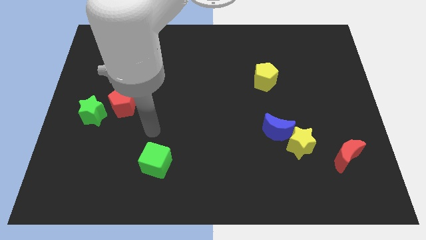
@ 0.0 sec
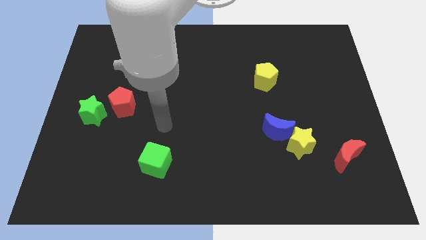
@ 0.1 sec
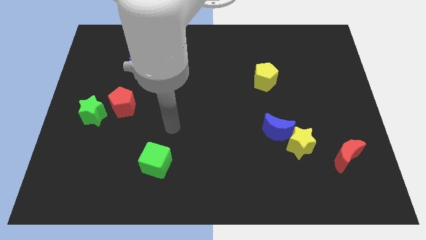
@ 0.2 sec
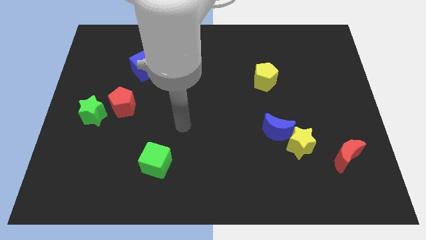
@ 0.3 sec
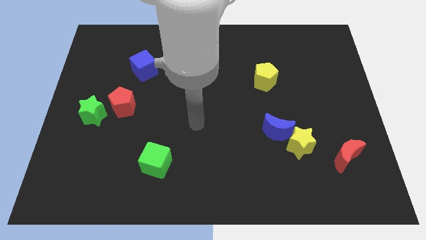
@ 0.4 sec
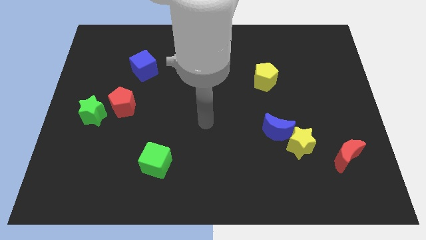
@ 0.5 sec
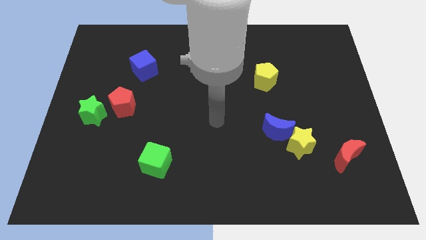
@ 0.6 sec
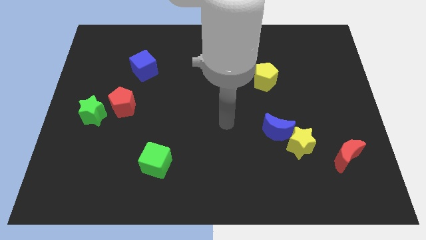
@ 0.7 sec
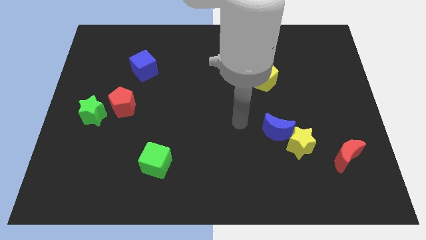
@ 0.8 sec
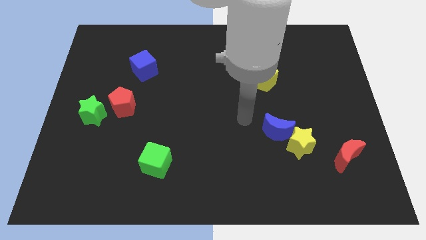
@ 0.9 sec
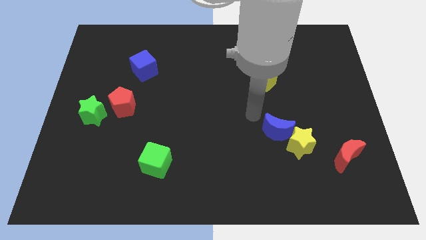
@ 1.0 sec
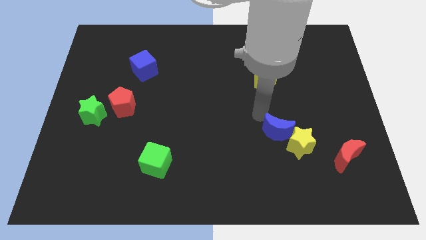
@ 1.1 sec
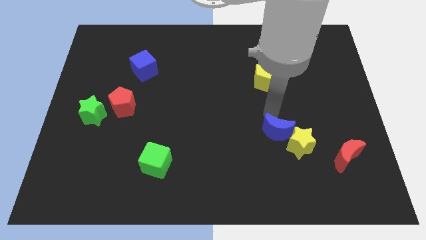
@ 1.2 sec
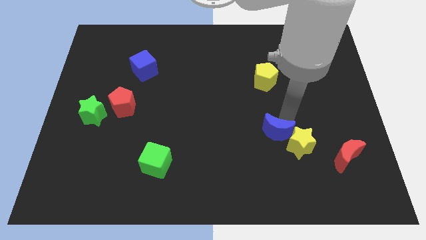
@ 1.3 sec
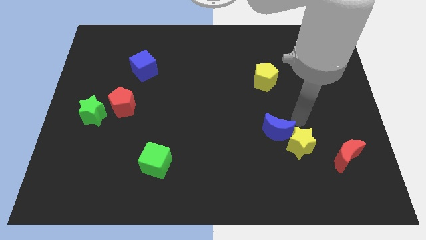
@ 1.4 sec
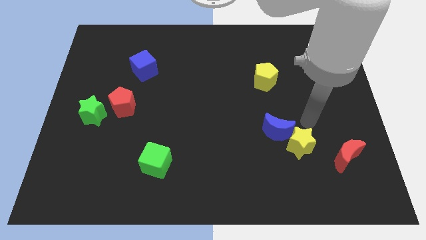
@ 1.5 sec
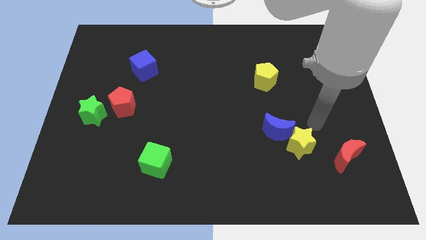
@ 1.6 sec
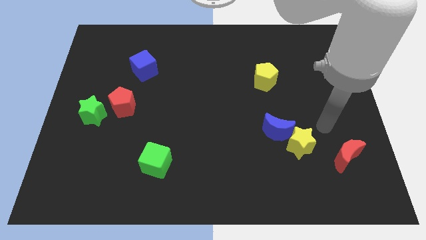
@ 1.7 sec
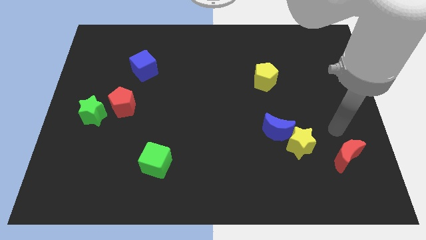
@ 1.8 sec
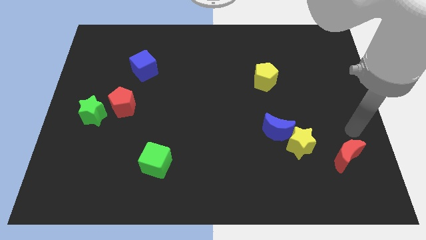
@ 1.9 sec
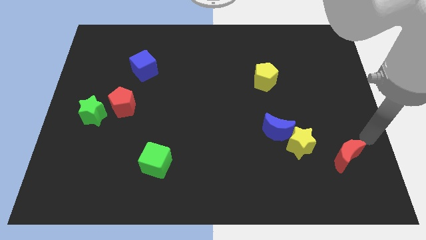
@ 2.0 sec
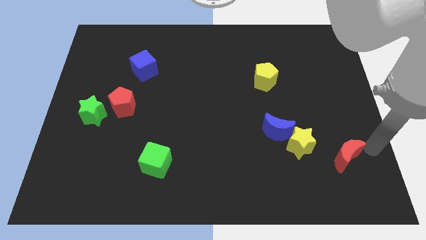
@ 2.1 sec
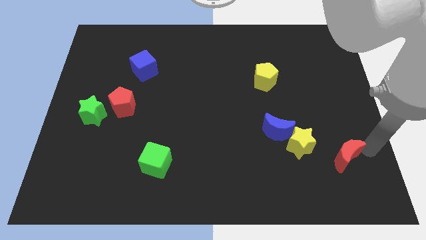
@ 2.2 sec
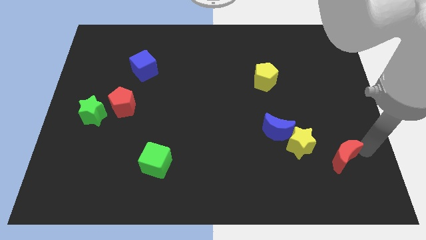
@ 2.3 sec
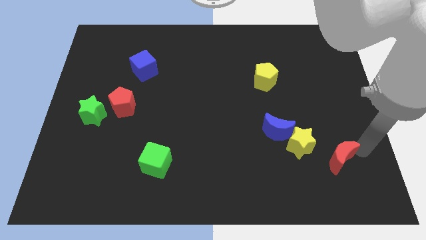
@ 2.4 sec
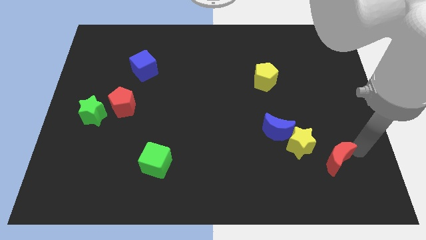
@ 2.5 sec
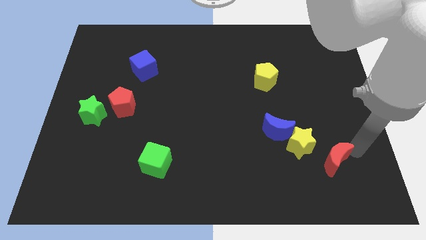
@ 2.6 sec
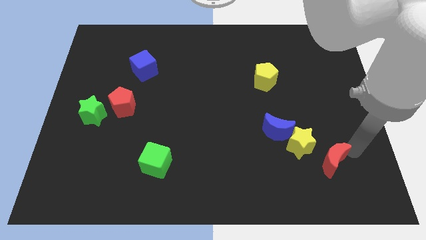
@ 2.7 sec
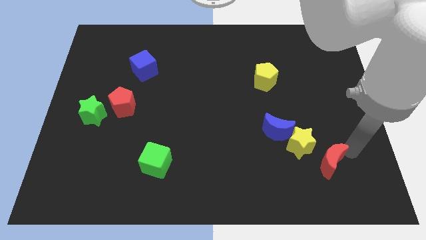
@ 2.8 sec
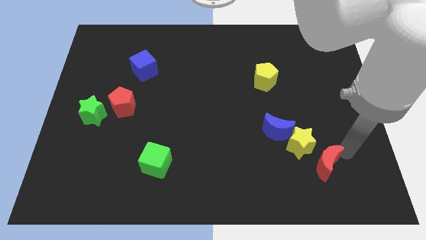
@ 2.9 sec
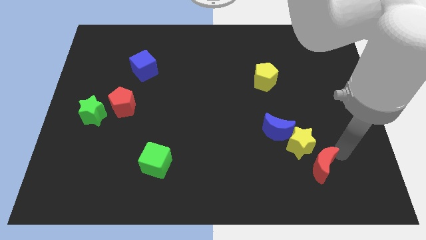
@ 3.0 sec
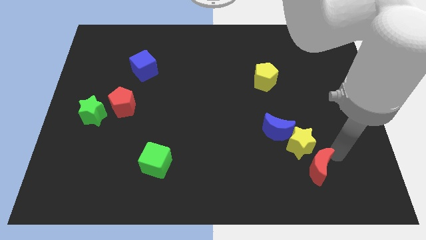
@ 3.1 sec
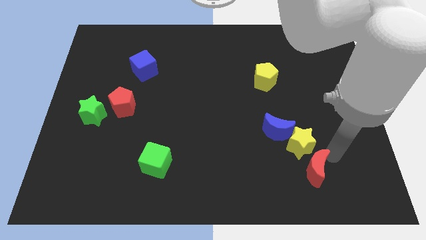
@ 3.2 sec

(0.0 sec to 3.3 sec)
slide the red moon left slightly

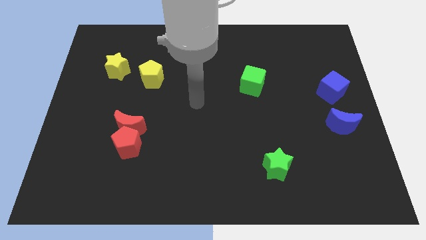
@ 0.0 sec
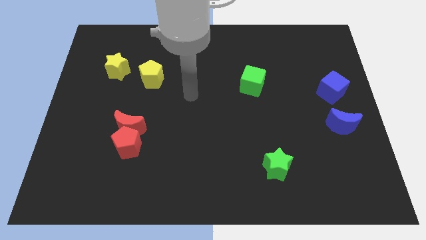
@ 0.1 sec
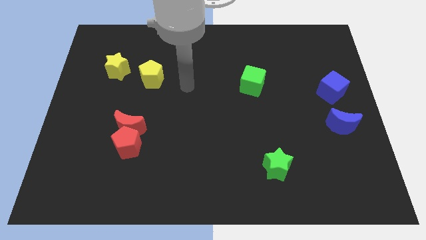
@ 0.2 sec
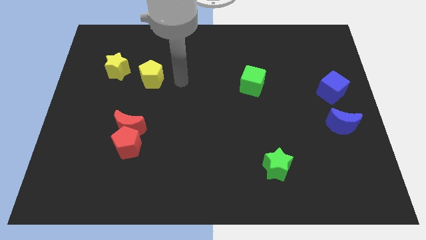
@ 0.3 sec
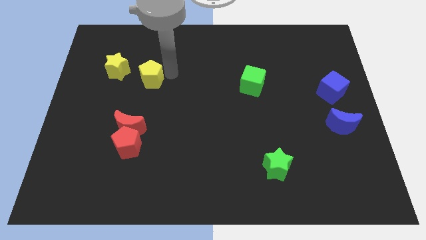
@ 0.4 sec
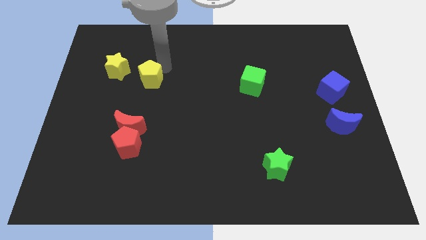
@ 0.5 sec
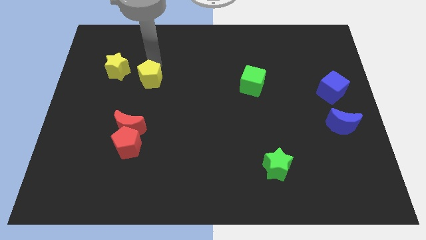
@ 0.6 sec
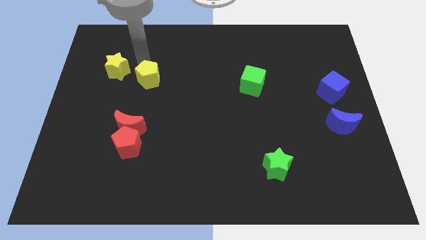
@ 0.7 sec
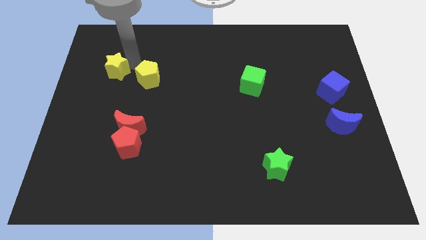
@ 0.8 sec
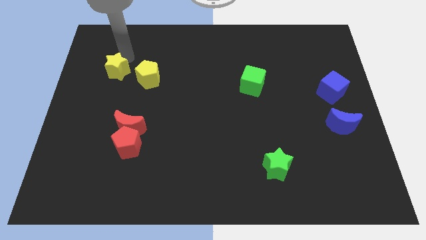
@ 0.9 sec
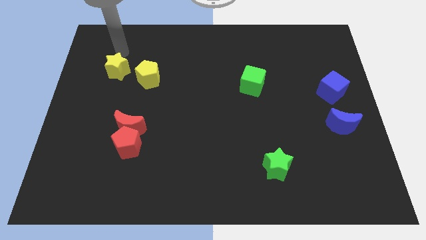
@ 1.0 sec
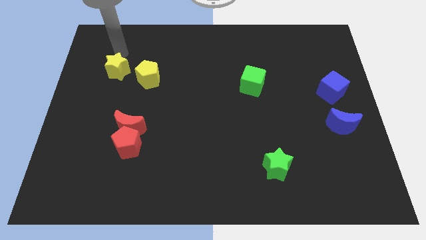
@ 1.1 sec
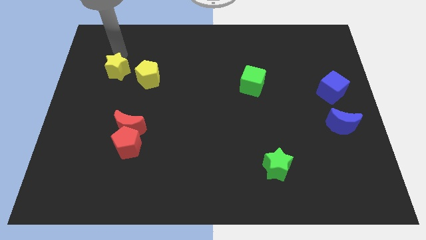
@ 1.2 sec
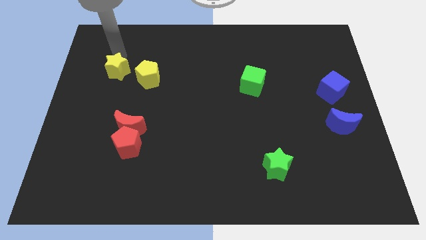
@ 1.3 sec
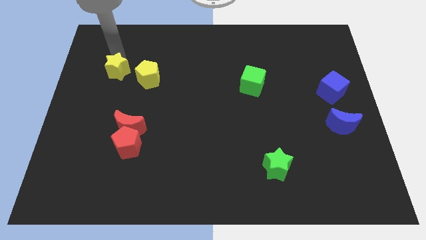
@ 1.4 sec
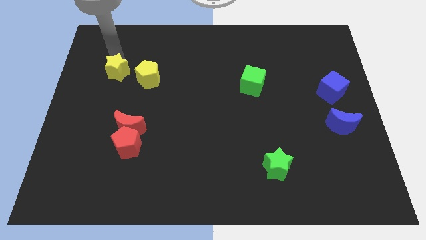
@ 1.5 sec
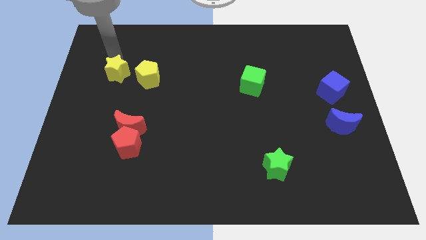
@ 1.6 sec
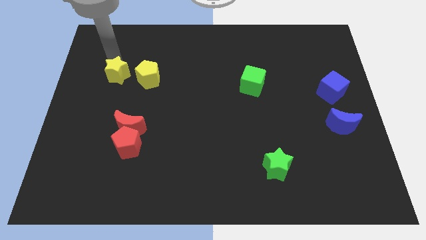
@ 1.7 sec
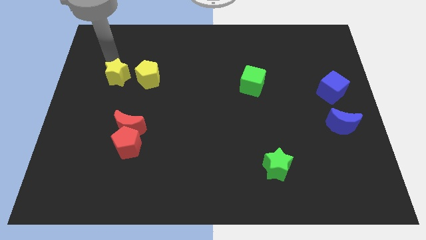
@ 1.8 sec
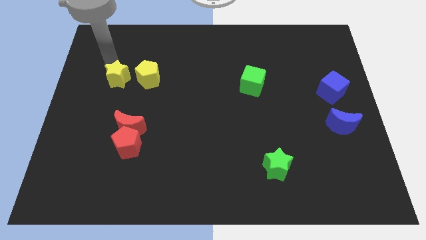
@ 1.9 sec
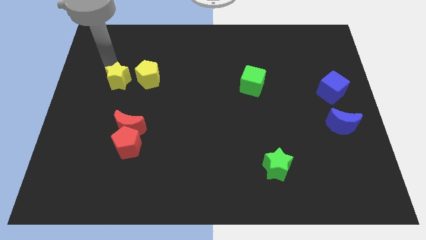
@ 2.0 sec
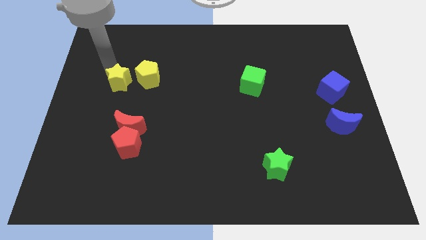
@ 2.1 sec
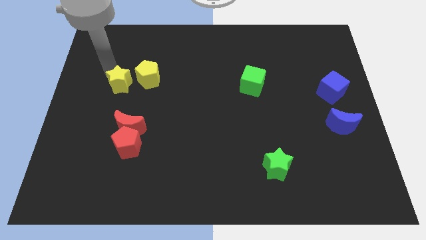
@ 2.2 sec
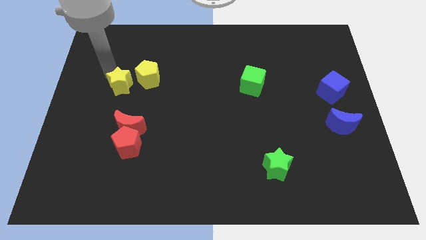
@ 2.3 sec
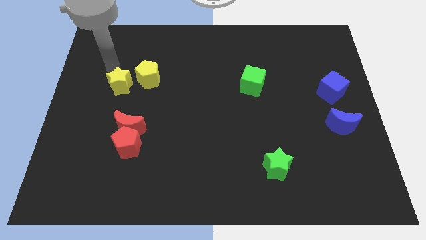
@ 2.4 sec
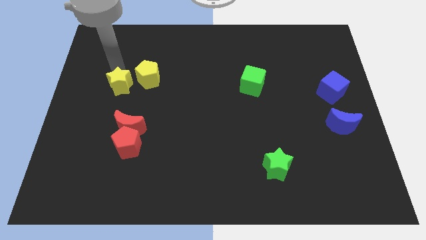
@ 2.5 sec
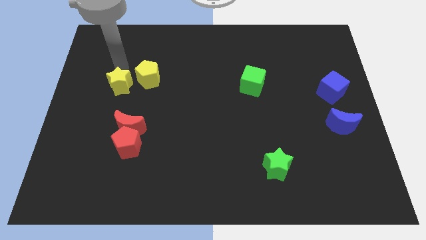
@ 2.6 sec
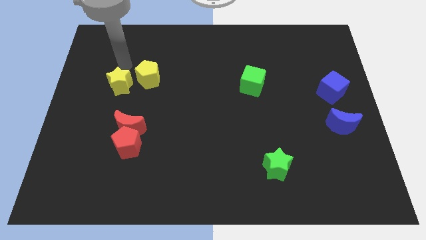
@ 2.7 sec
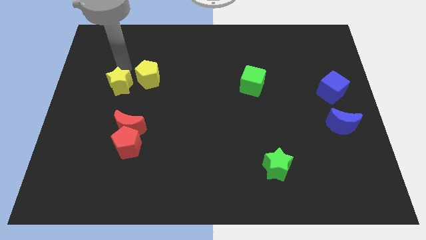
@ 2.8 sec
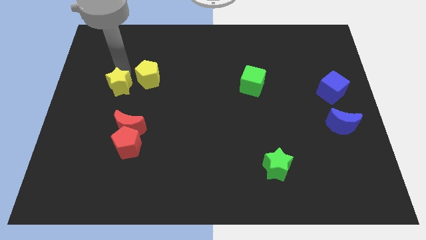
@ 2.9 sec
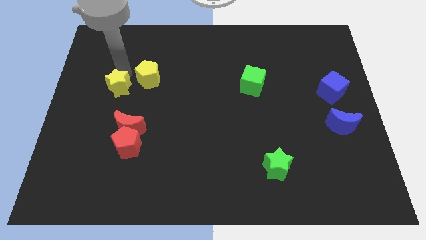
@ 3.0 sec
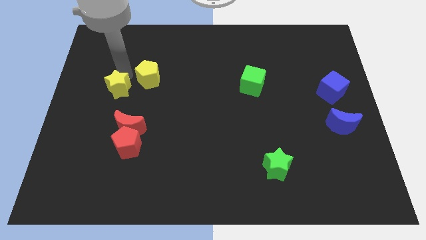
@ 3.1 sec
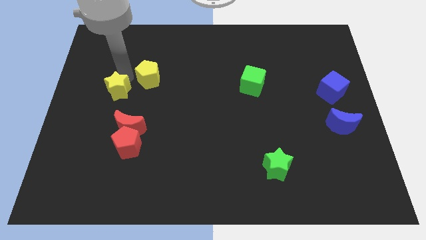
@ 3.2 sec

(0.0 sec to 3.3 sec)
push the yellow star slightly downwards

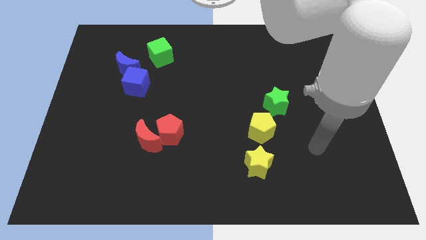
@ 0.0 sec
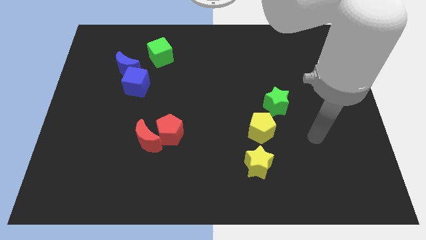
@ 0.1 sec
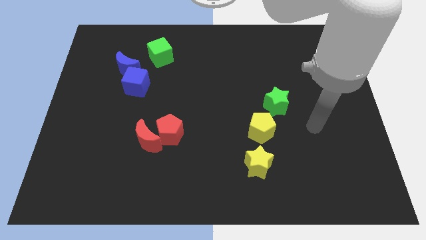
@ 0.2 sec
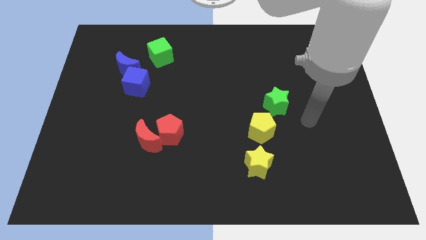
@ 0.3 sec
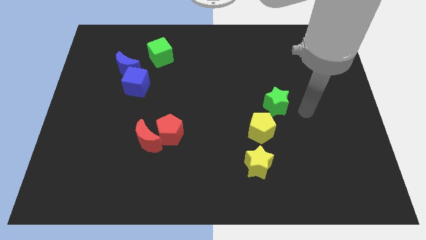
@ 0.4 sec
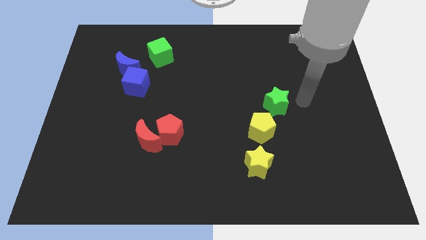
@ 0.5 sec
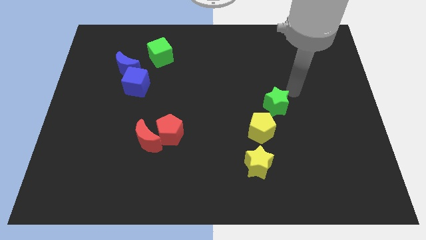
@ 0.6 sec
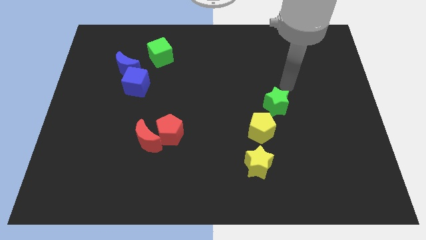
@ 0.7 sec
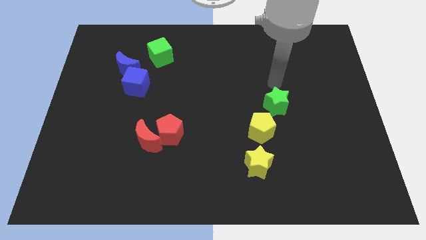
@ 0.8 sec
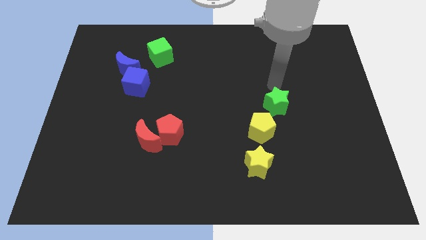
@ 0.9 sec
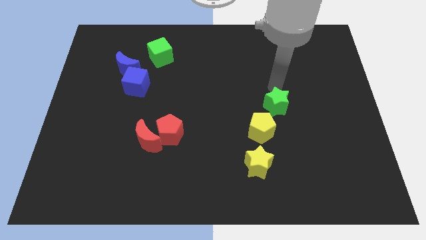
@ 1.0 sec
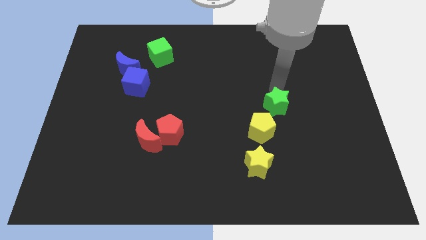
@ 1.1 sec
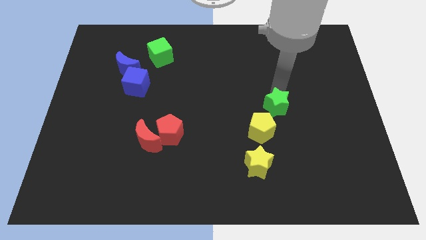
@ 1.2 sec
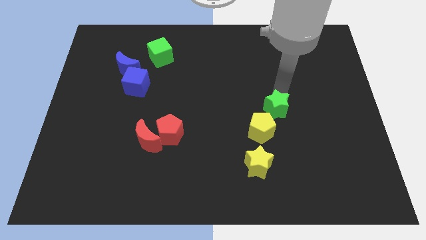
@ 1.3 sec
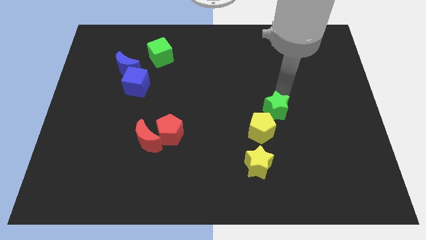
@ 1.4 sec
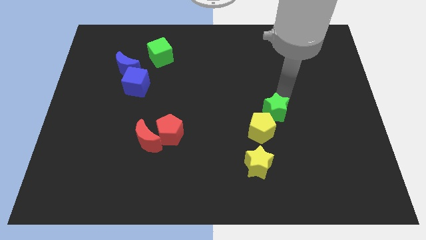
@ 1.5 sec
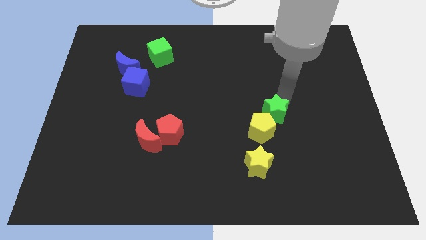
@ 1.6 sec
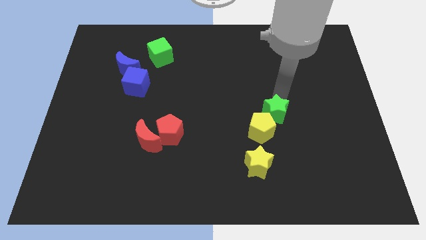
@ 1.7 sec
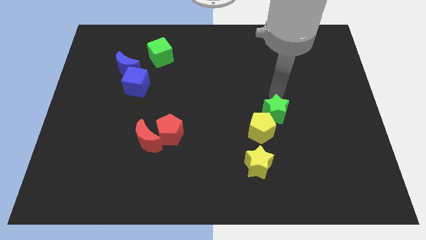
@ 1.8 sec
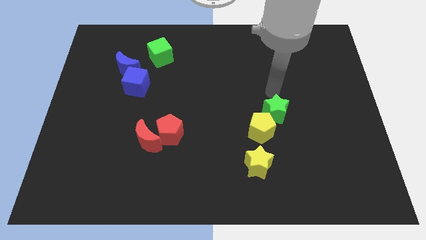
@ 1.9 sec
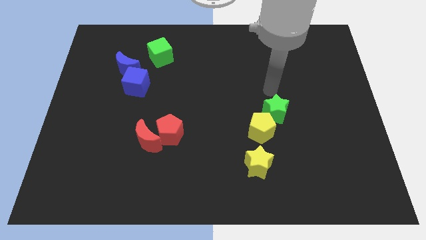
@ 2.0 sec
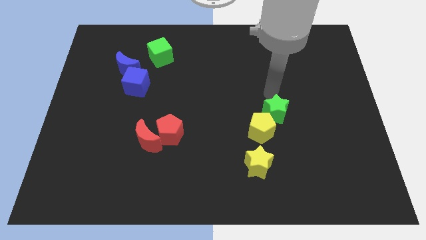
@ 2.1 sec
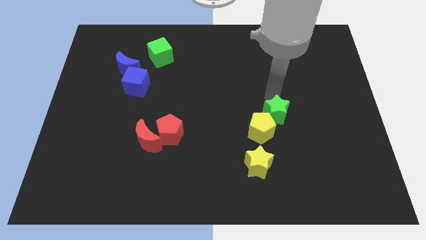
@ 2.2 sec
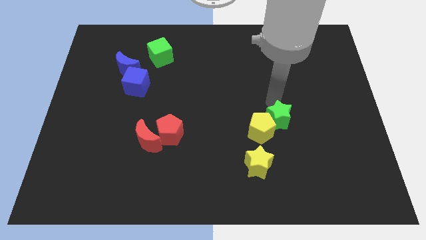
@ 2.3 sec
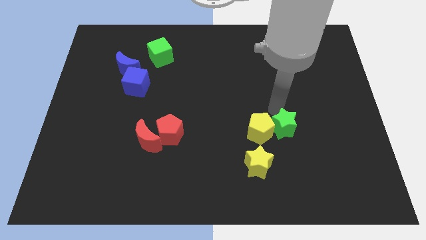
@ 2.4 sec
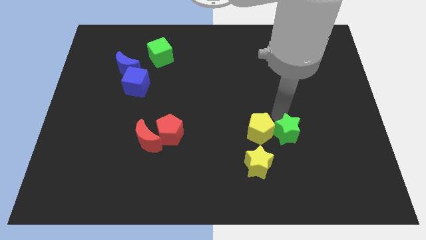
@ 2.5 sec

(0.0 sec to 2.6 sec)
push the green star down a little bit
